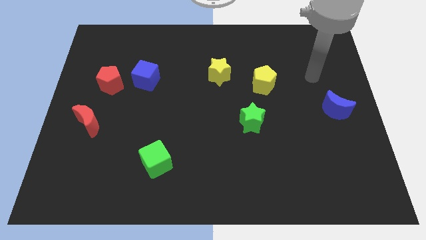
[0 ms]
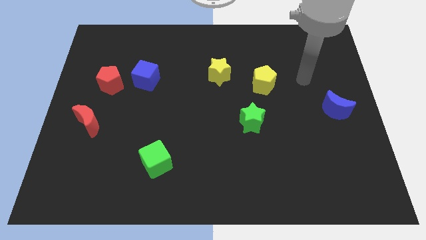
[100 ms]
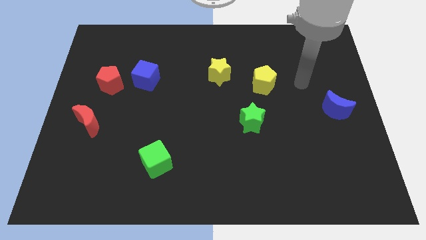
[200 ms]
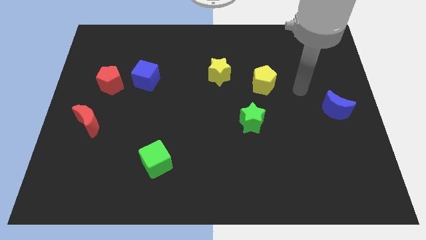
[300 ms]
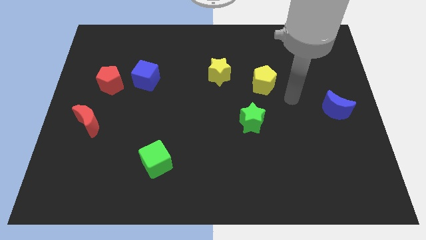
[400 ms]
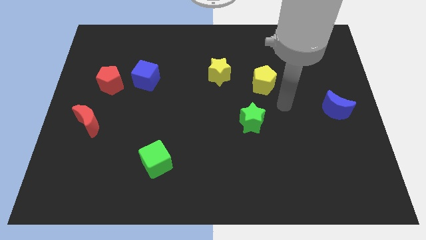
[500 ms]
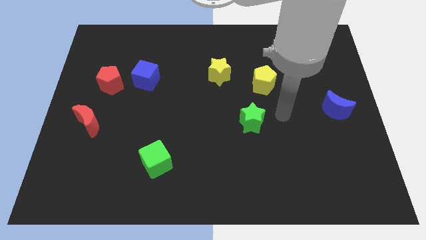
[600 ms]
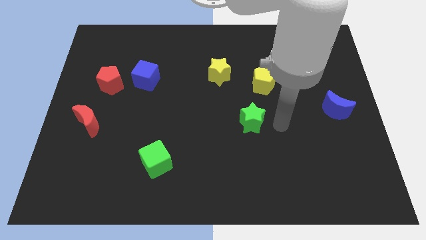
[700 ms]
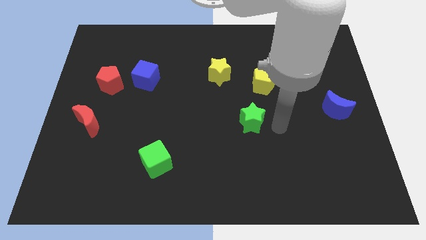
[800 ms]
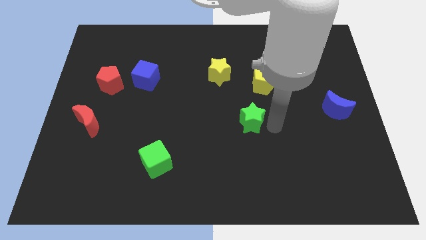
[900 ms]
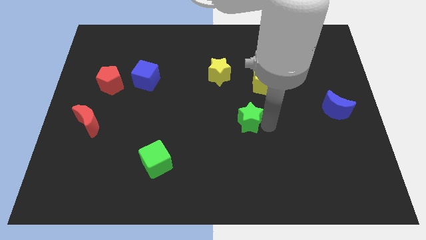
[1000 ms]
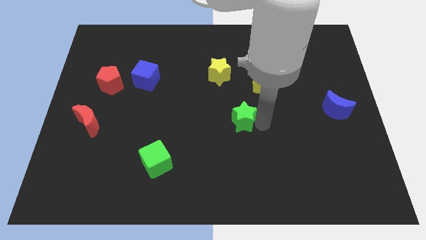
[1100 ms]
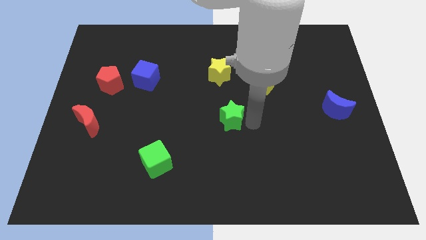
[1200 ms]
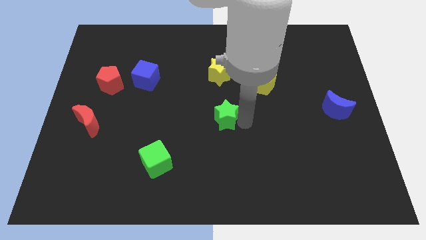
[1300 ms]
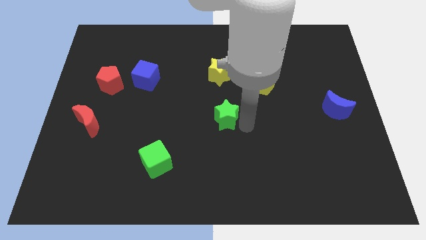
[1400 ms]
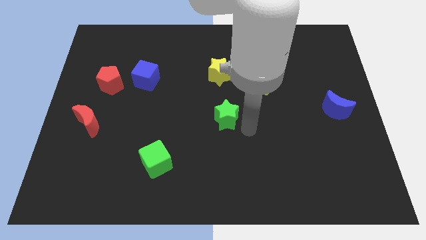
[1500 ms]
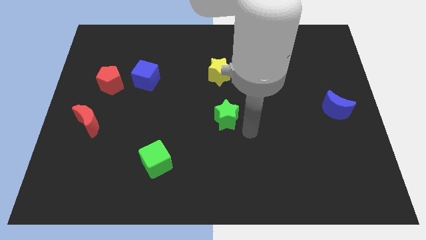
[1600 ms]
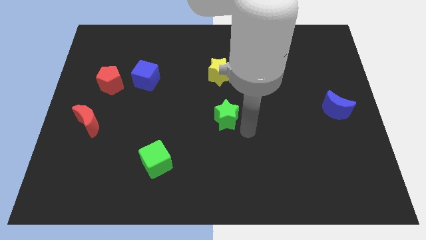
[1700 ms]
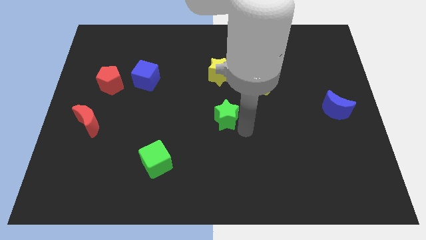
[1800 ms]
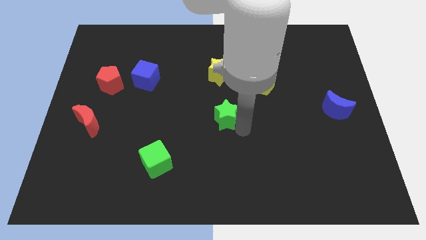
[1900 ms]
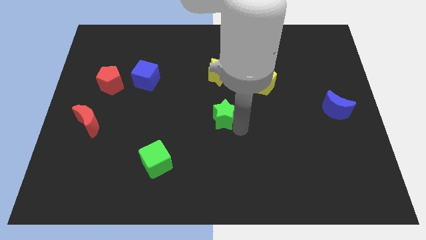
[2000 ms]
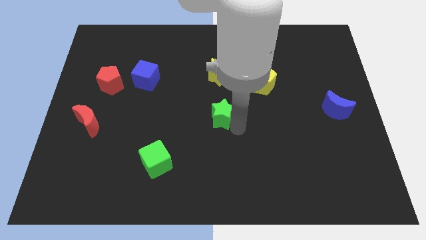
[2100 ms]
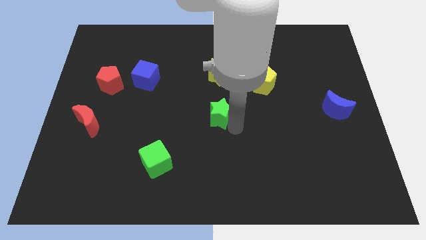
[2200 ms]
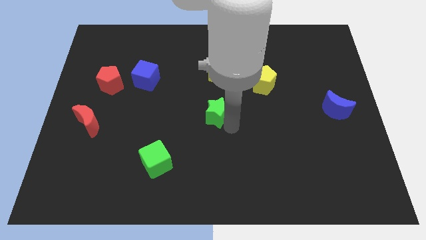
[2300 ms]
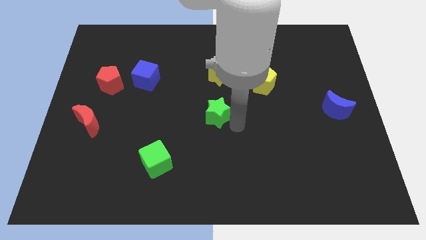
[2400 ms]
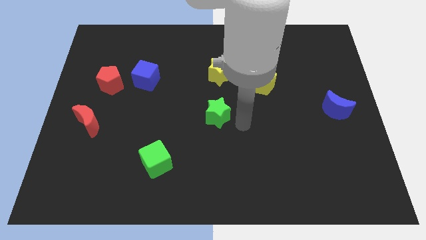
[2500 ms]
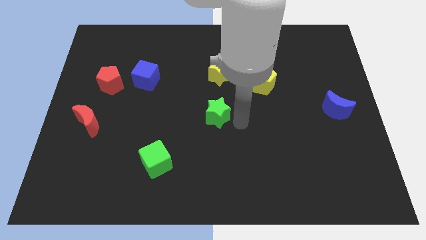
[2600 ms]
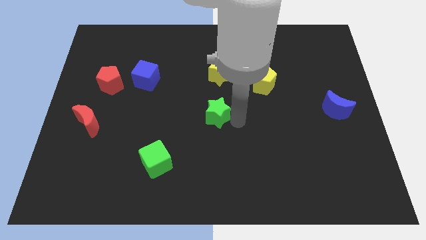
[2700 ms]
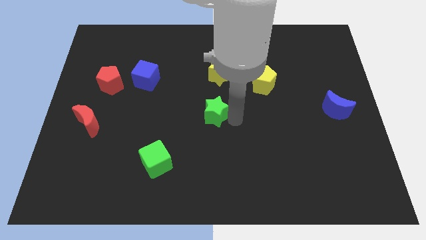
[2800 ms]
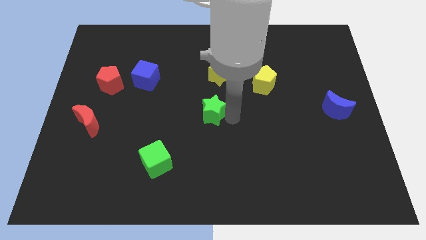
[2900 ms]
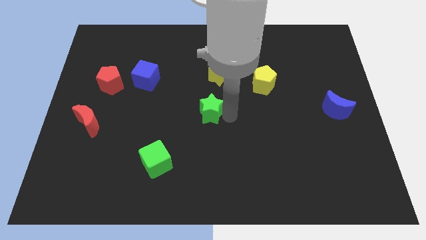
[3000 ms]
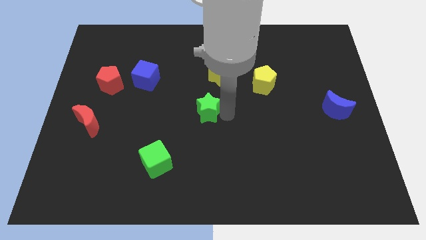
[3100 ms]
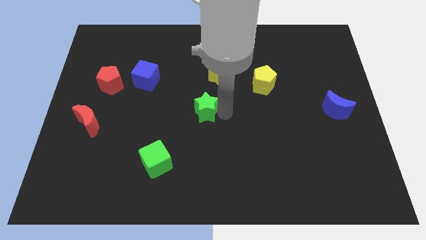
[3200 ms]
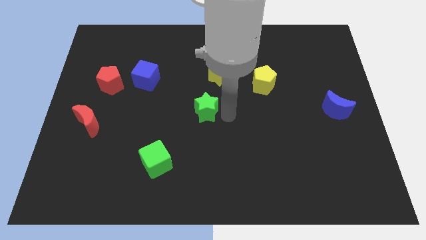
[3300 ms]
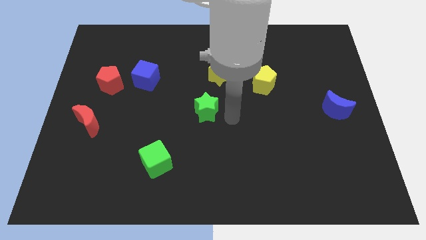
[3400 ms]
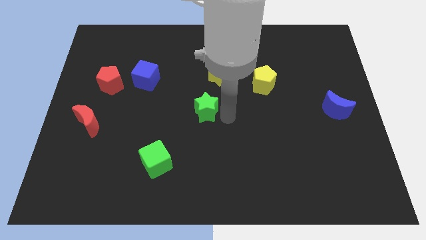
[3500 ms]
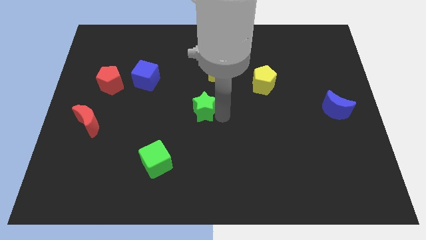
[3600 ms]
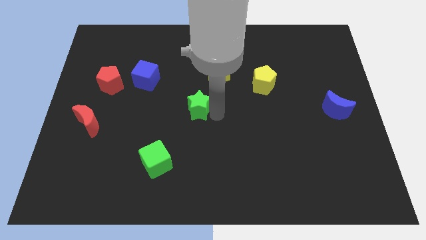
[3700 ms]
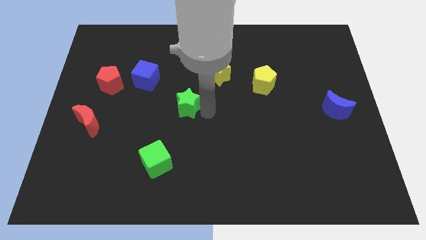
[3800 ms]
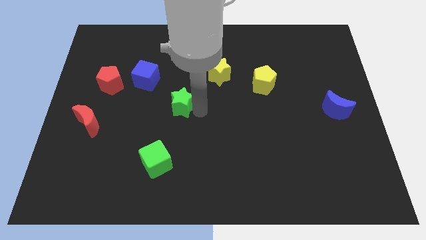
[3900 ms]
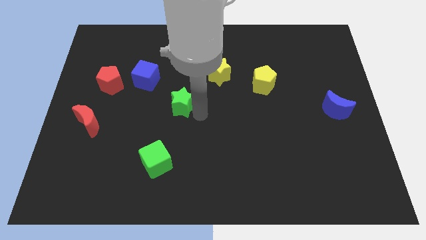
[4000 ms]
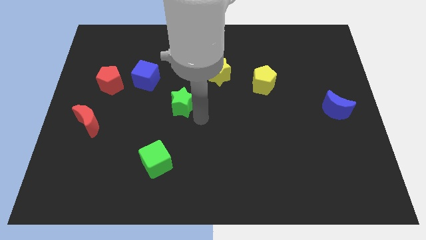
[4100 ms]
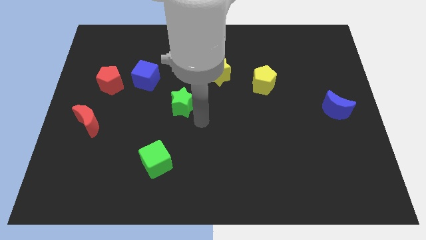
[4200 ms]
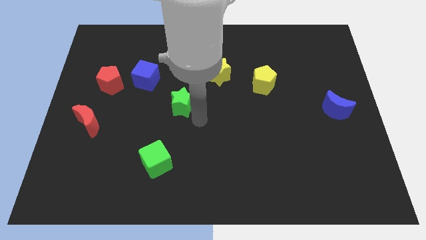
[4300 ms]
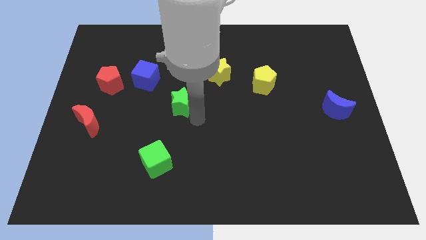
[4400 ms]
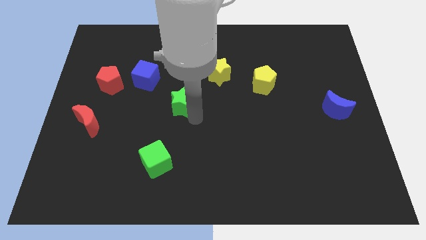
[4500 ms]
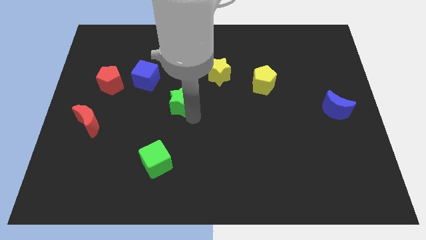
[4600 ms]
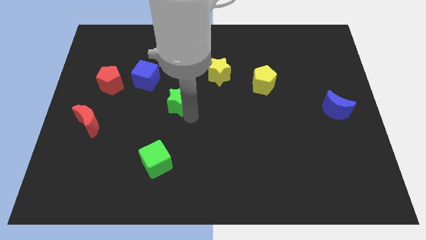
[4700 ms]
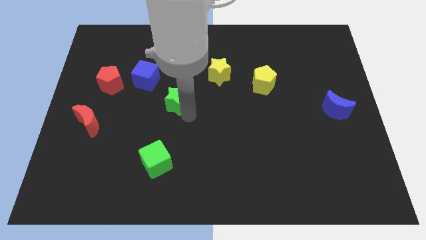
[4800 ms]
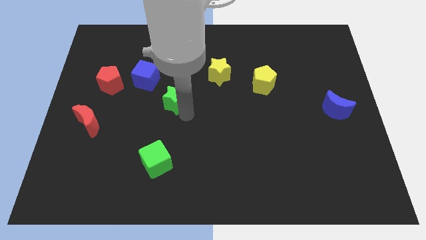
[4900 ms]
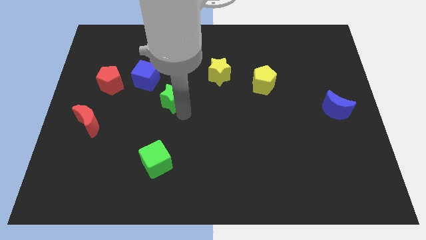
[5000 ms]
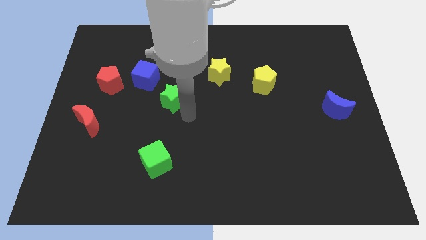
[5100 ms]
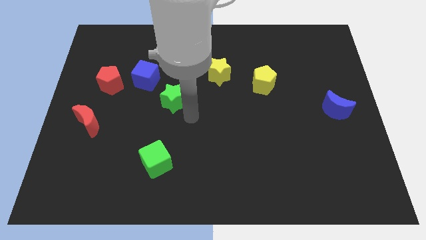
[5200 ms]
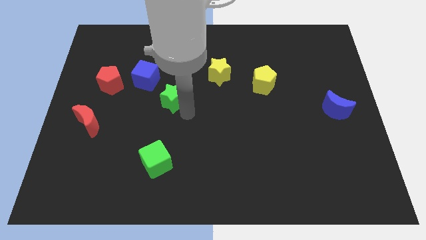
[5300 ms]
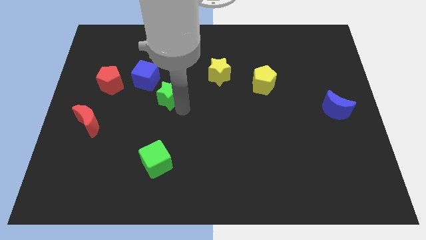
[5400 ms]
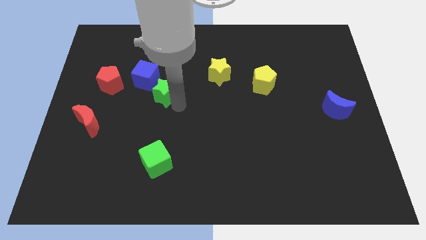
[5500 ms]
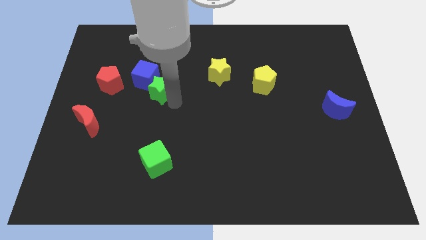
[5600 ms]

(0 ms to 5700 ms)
slide the green star close to the blue cube

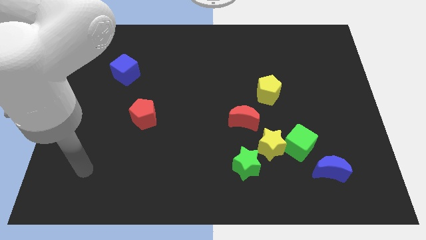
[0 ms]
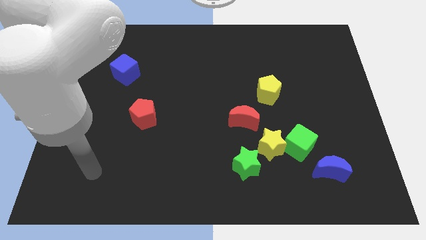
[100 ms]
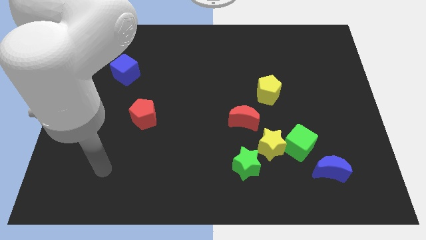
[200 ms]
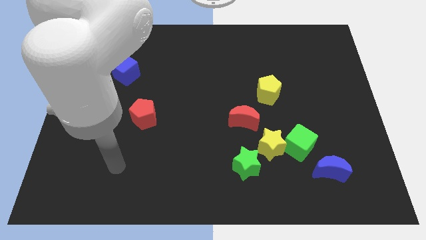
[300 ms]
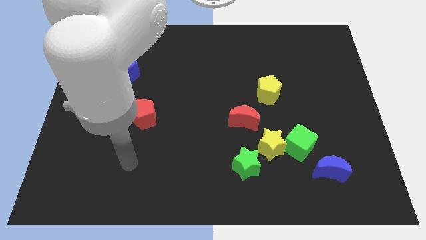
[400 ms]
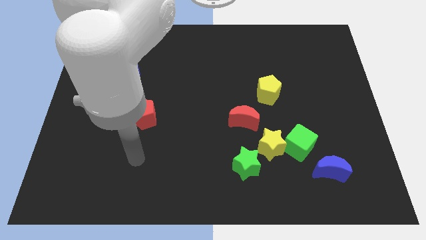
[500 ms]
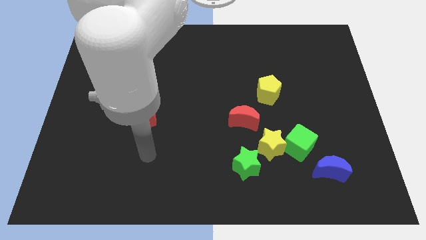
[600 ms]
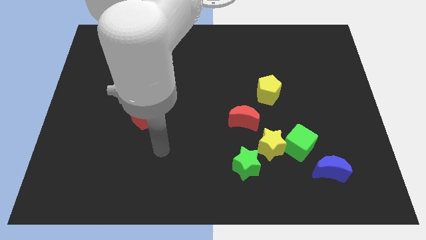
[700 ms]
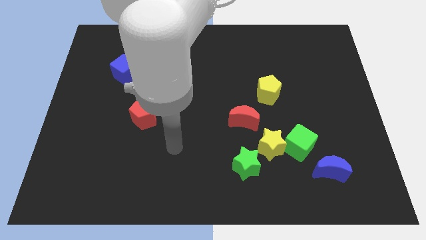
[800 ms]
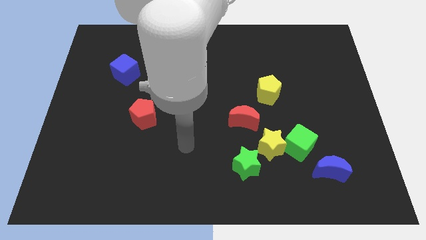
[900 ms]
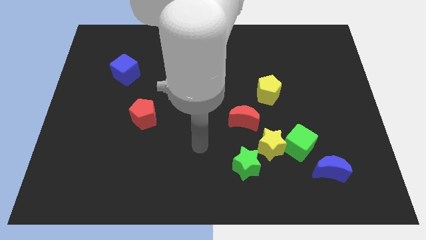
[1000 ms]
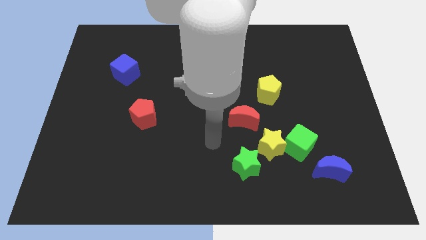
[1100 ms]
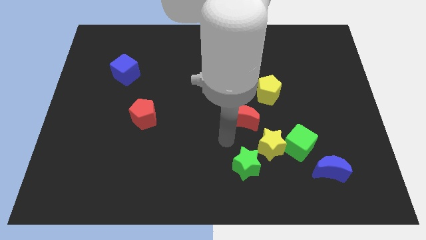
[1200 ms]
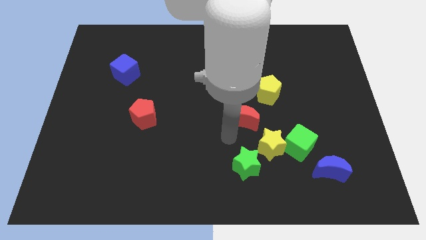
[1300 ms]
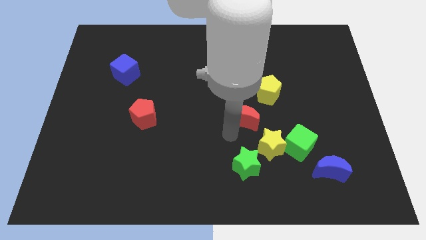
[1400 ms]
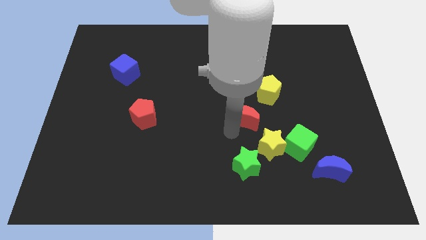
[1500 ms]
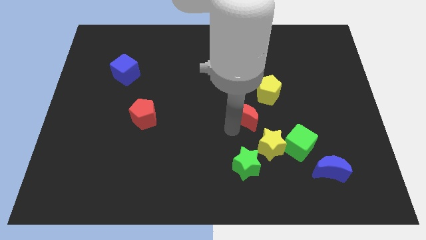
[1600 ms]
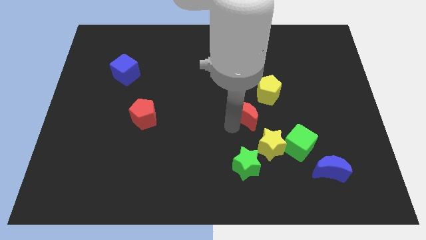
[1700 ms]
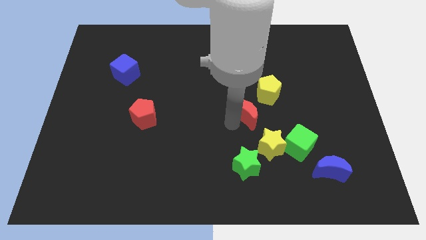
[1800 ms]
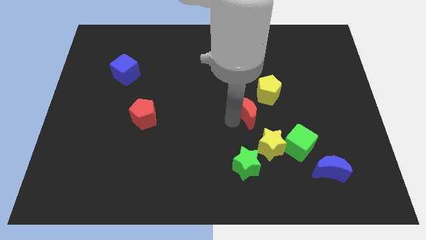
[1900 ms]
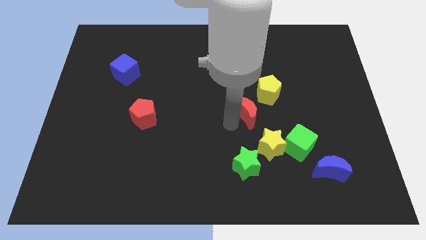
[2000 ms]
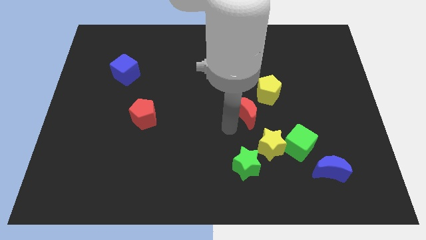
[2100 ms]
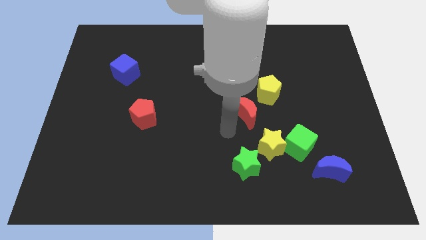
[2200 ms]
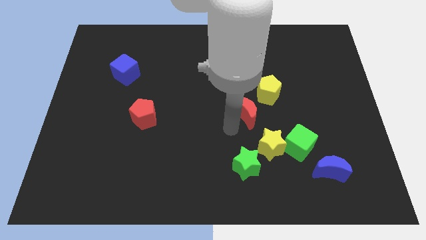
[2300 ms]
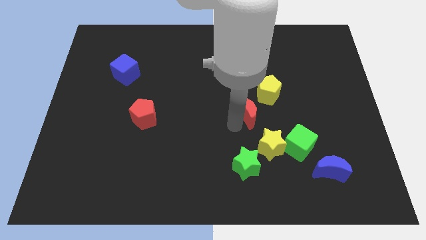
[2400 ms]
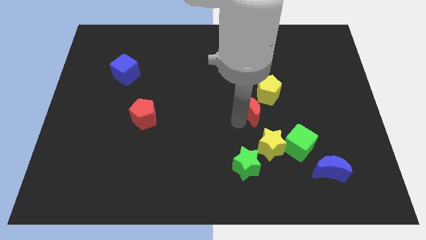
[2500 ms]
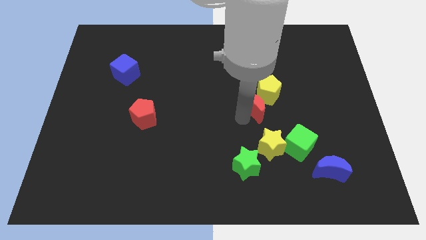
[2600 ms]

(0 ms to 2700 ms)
move the red moon to the yellow pentagon
